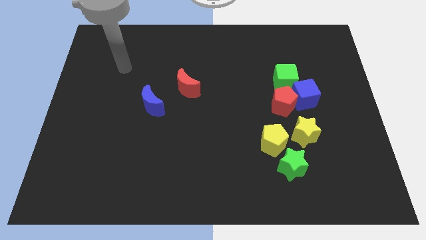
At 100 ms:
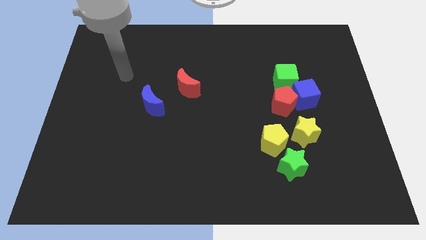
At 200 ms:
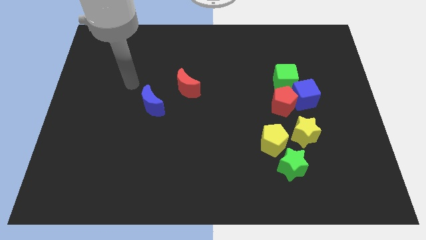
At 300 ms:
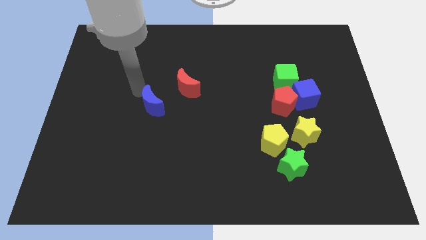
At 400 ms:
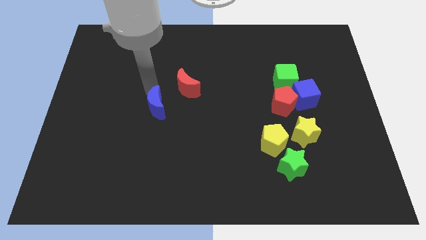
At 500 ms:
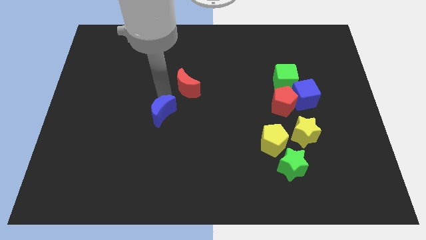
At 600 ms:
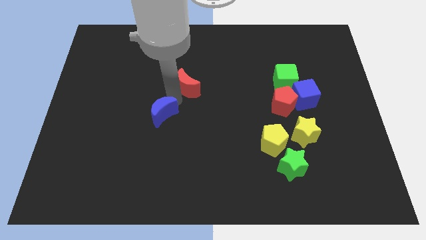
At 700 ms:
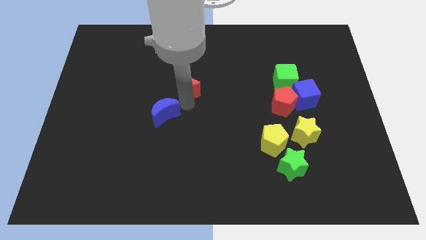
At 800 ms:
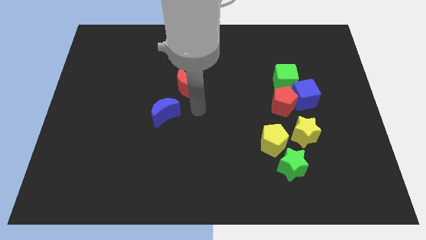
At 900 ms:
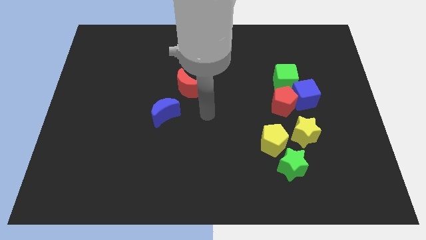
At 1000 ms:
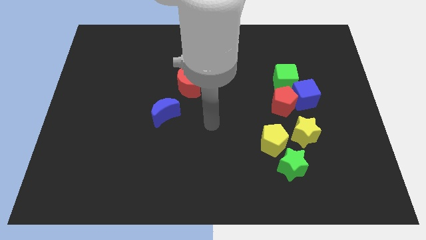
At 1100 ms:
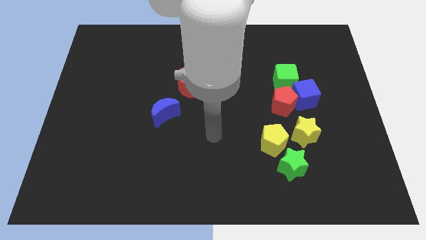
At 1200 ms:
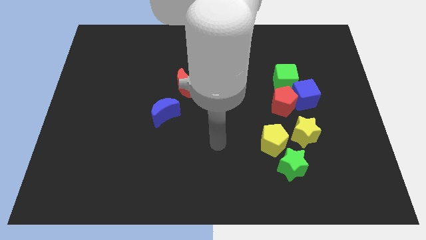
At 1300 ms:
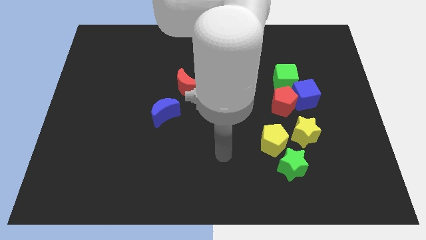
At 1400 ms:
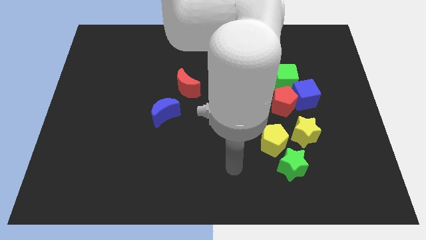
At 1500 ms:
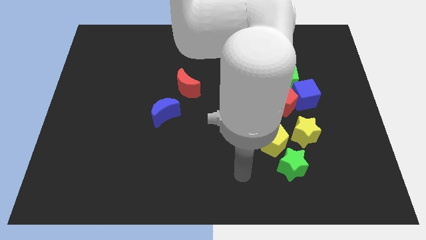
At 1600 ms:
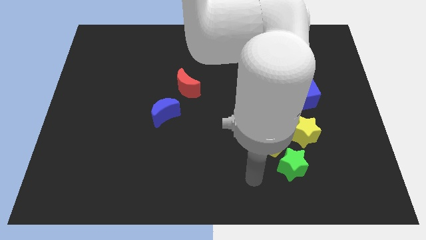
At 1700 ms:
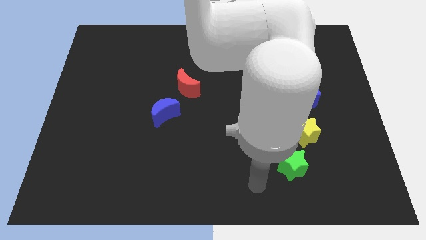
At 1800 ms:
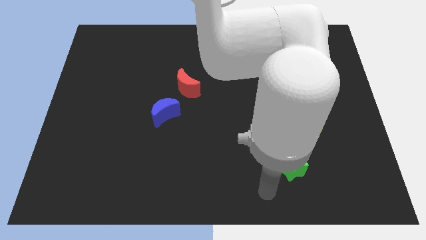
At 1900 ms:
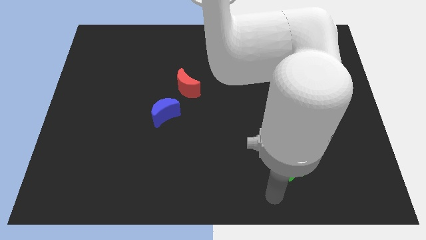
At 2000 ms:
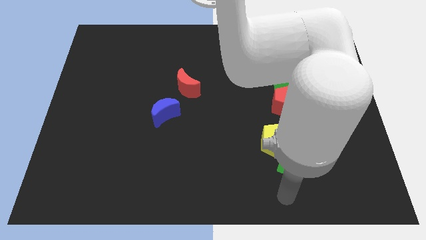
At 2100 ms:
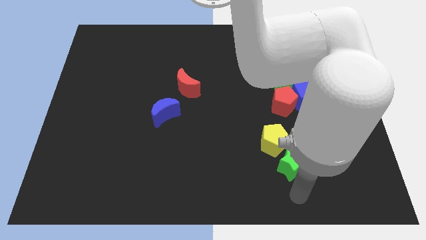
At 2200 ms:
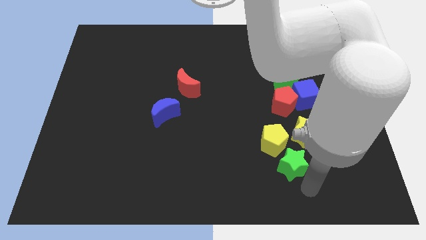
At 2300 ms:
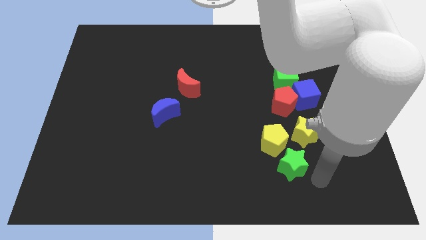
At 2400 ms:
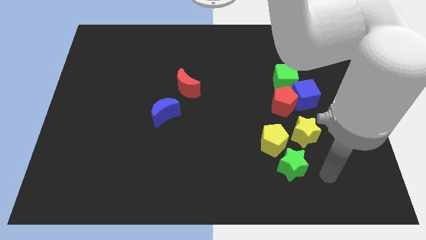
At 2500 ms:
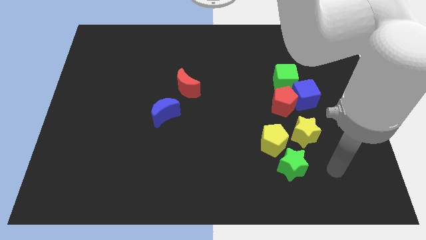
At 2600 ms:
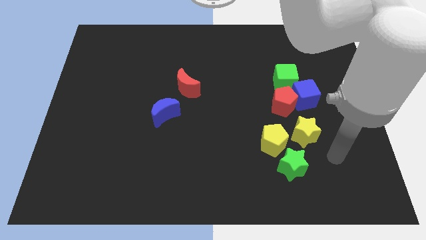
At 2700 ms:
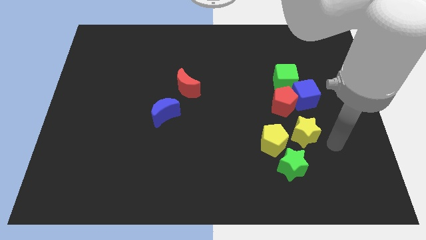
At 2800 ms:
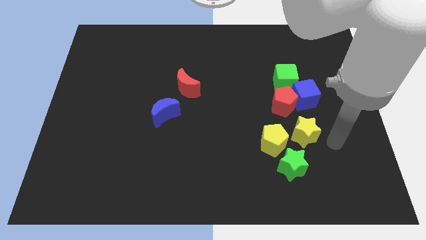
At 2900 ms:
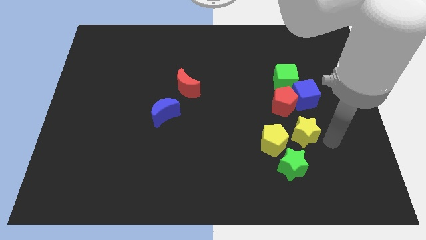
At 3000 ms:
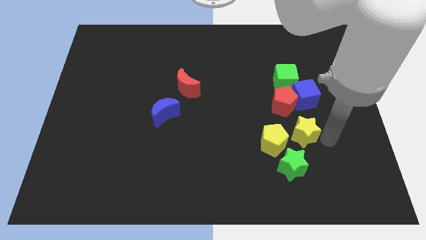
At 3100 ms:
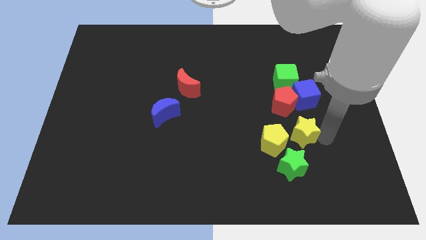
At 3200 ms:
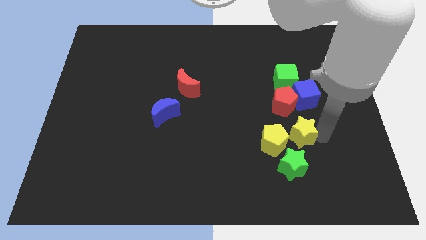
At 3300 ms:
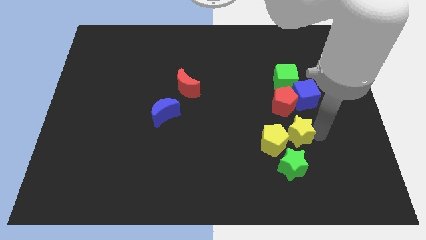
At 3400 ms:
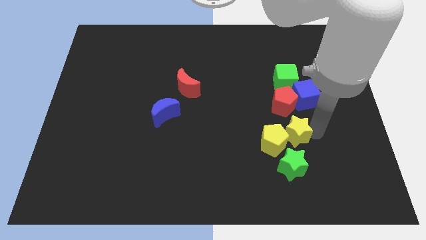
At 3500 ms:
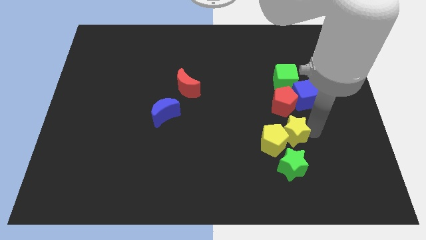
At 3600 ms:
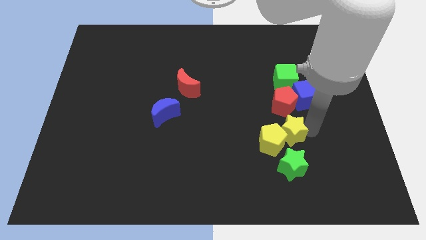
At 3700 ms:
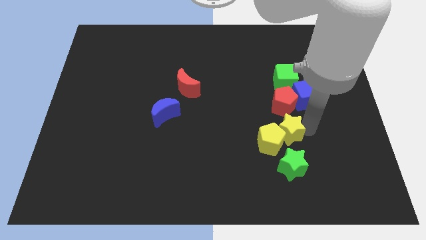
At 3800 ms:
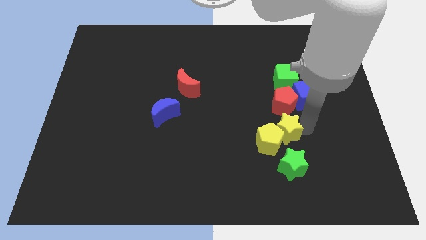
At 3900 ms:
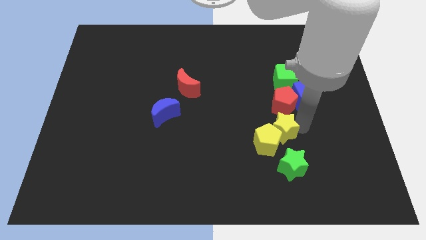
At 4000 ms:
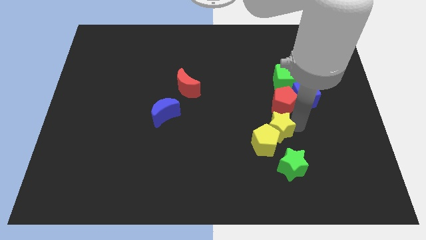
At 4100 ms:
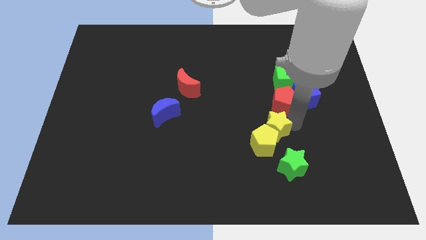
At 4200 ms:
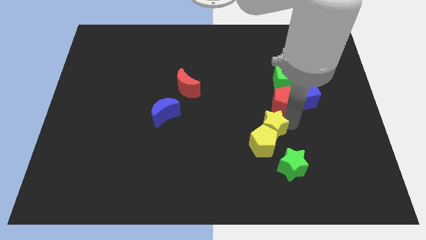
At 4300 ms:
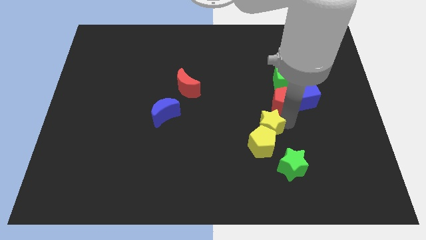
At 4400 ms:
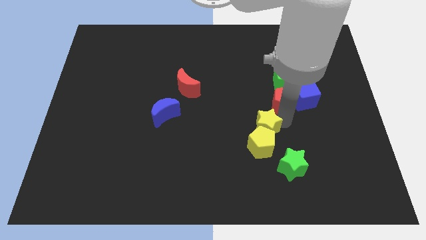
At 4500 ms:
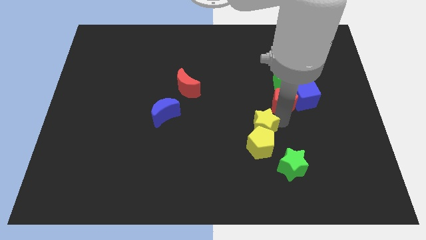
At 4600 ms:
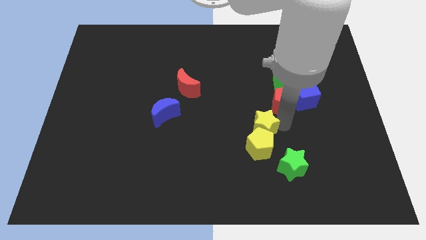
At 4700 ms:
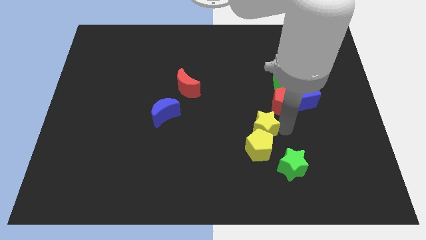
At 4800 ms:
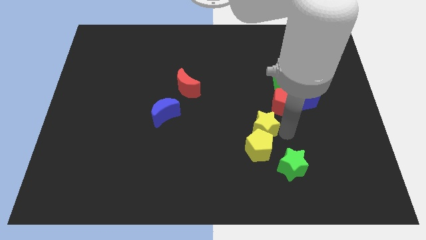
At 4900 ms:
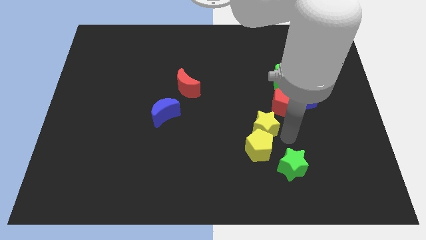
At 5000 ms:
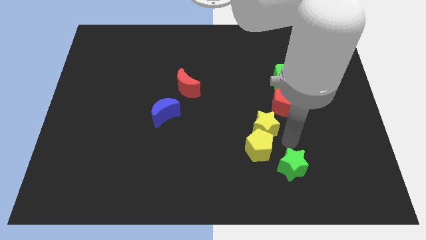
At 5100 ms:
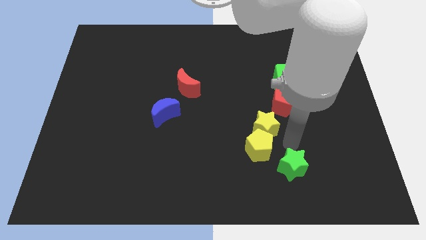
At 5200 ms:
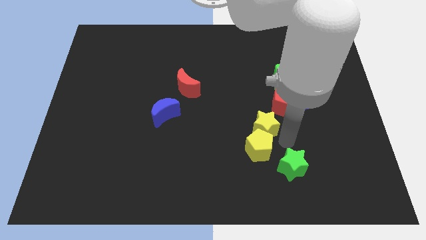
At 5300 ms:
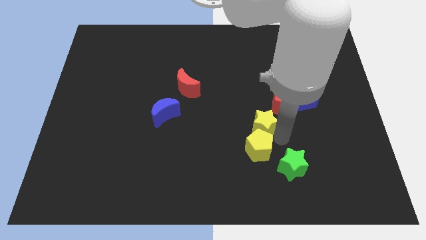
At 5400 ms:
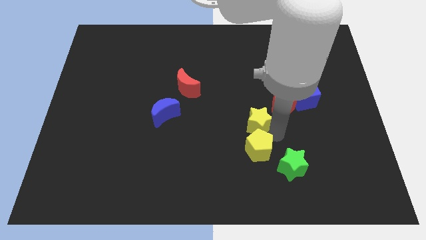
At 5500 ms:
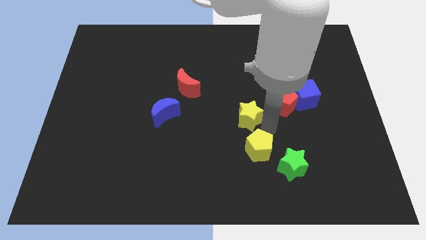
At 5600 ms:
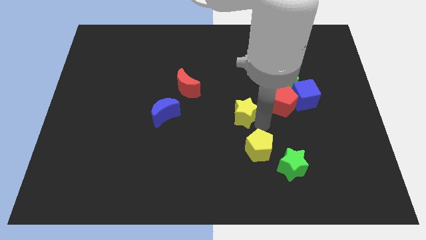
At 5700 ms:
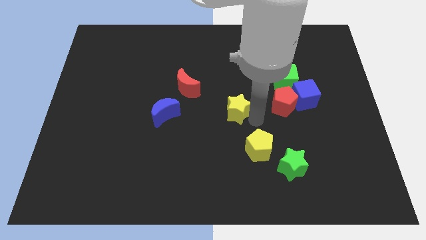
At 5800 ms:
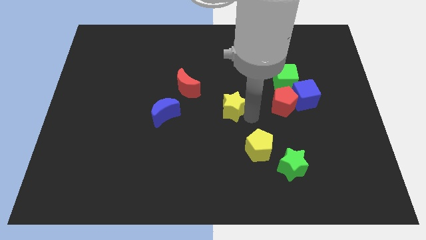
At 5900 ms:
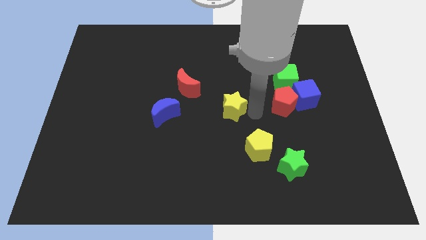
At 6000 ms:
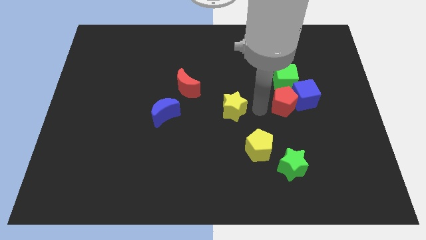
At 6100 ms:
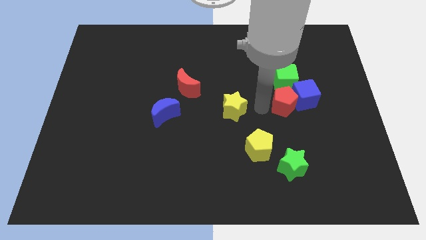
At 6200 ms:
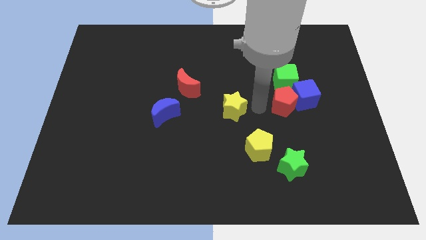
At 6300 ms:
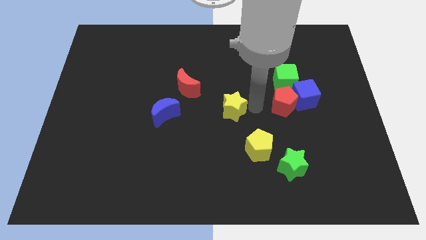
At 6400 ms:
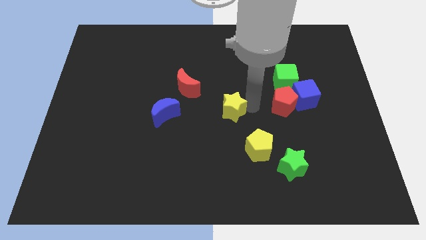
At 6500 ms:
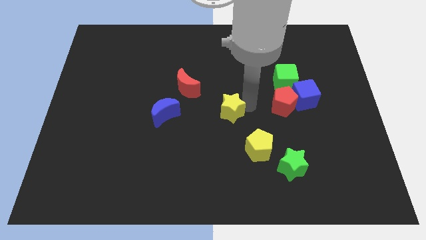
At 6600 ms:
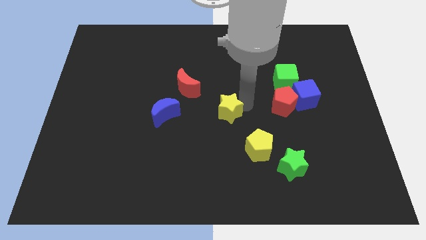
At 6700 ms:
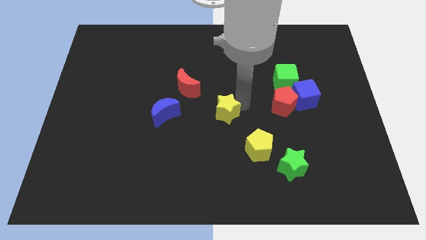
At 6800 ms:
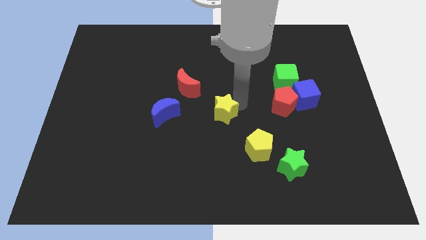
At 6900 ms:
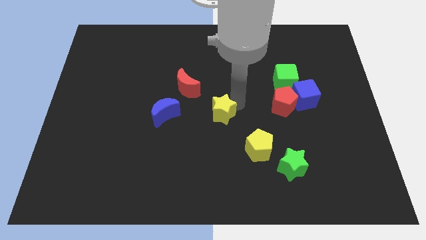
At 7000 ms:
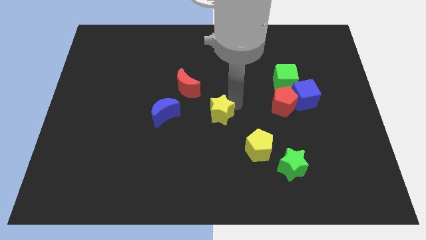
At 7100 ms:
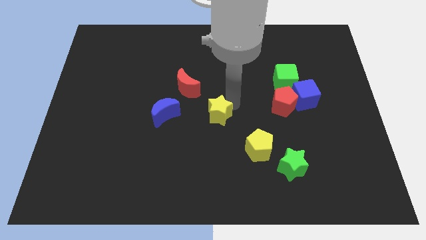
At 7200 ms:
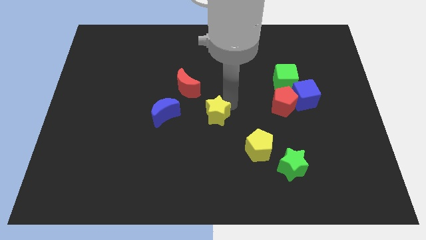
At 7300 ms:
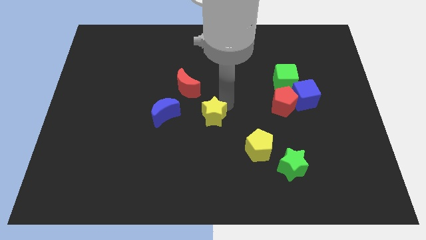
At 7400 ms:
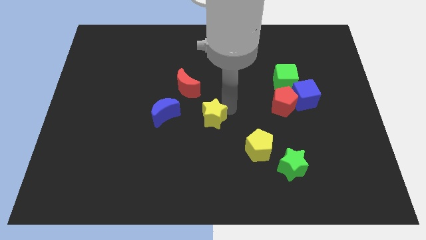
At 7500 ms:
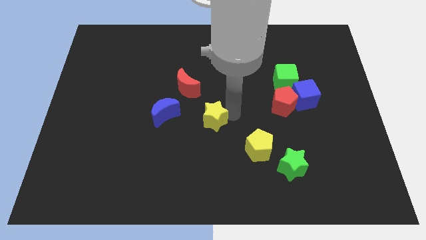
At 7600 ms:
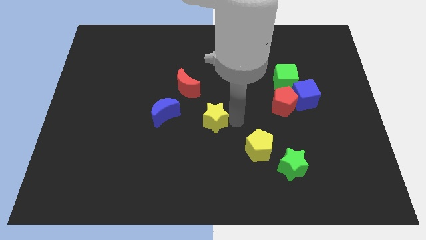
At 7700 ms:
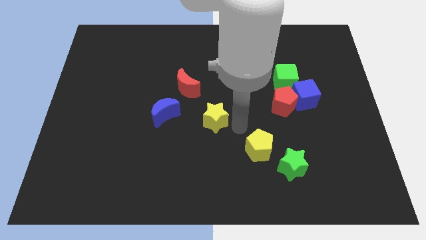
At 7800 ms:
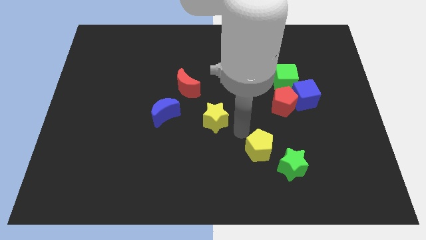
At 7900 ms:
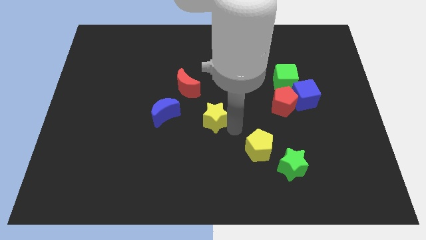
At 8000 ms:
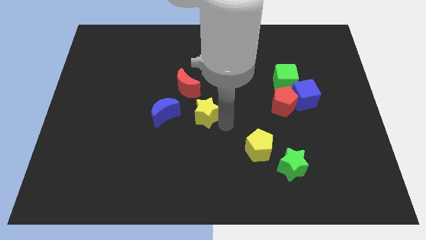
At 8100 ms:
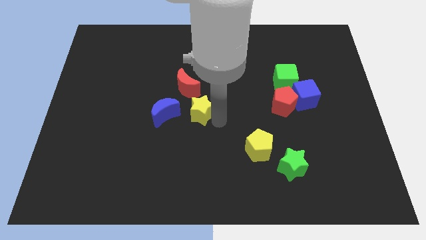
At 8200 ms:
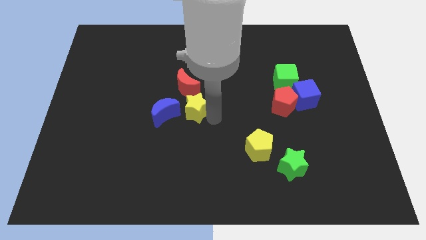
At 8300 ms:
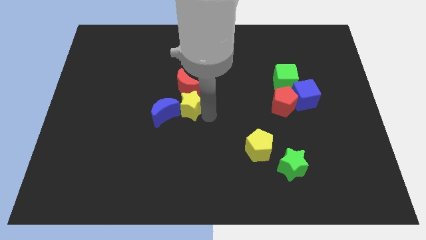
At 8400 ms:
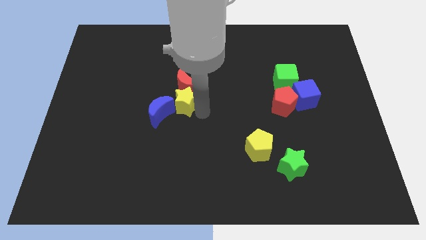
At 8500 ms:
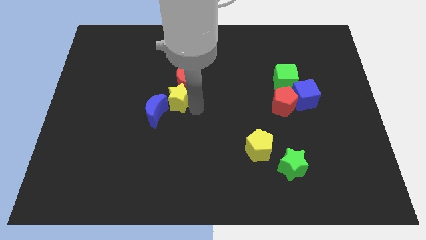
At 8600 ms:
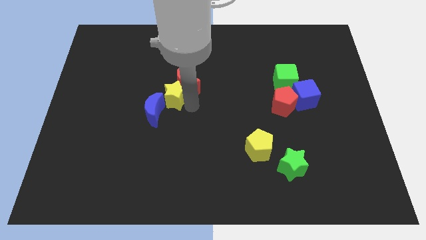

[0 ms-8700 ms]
put the yellow star just left of the red moon
